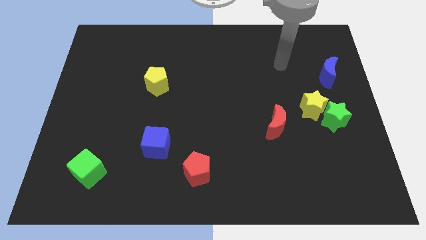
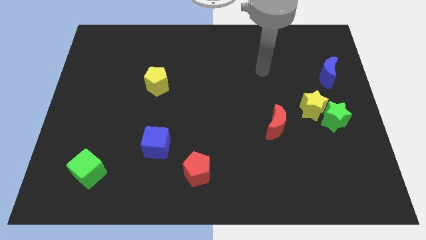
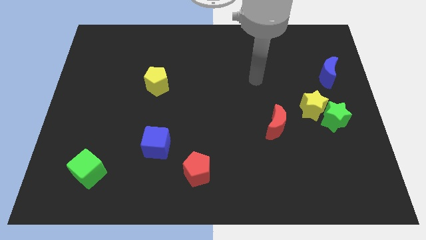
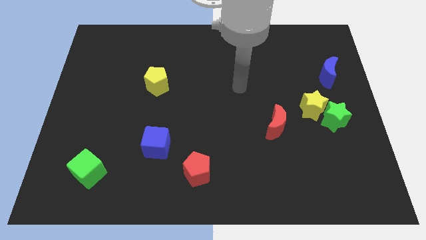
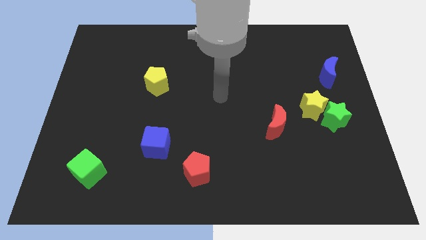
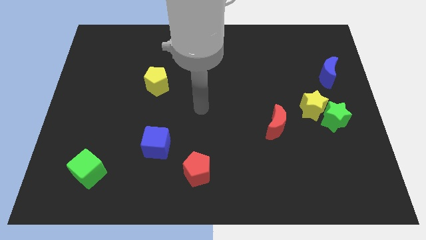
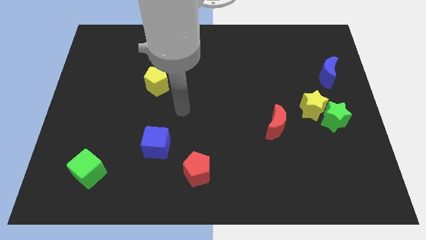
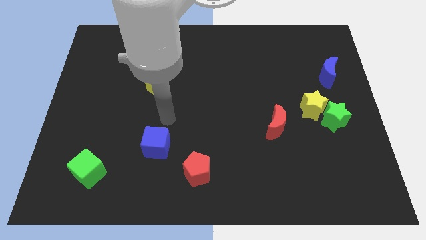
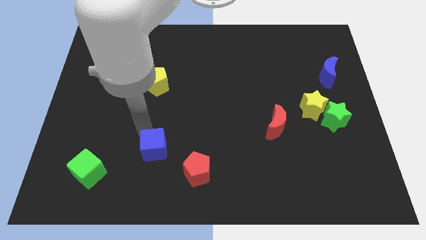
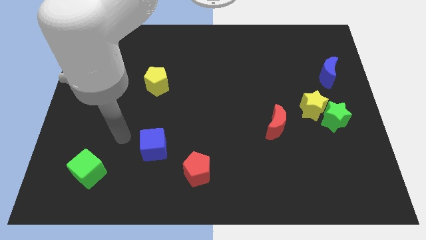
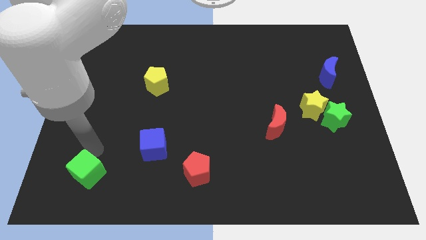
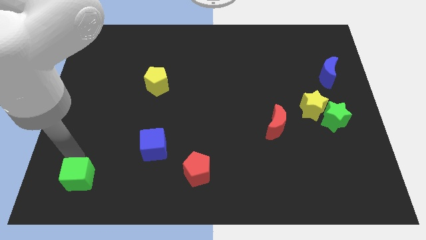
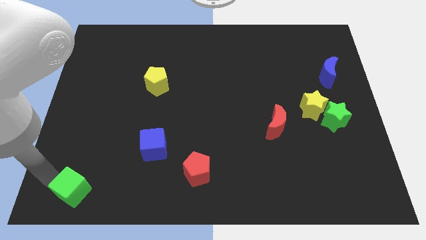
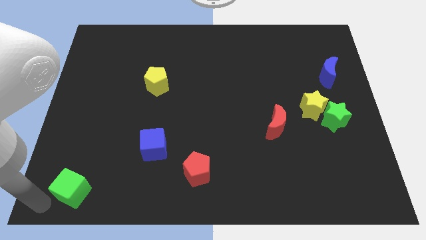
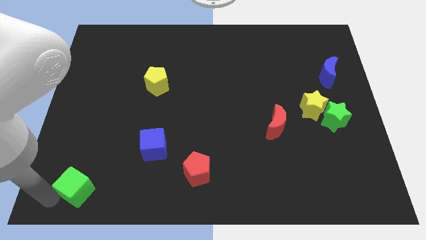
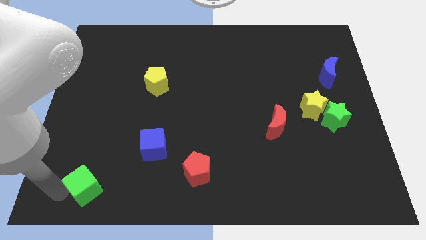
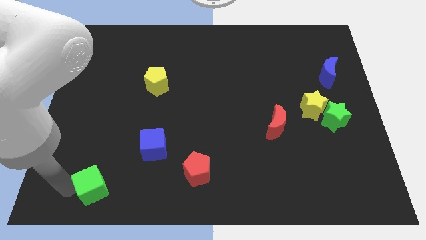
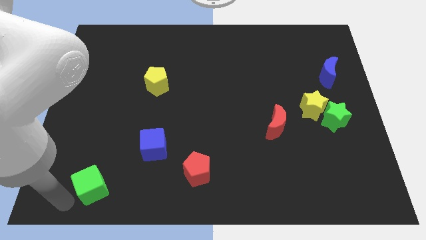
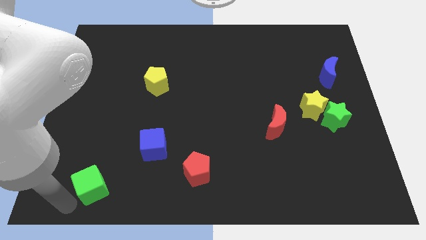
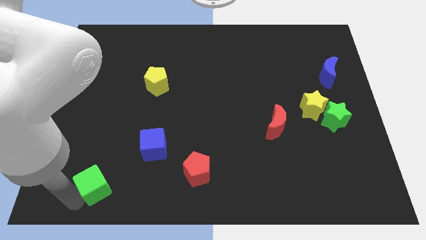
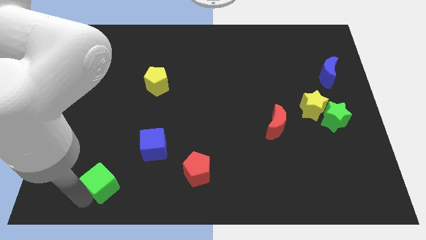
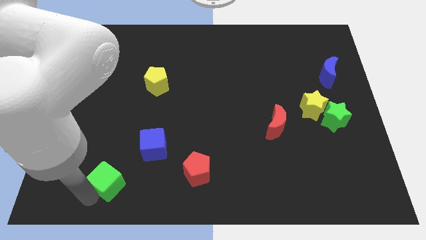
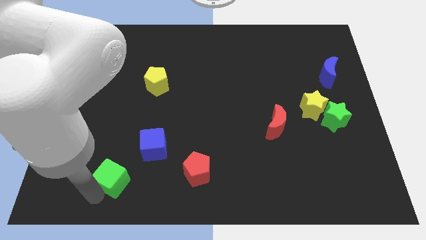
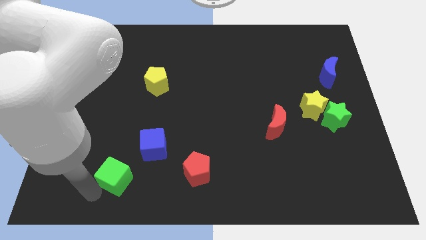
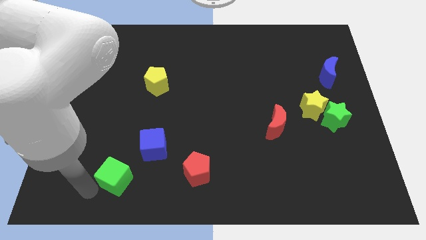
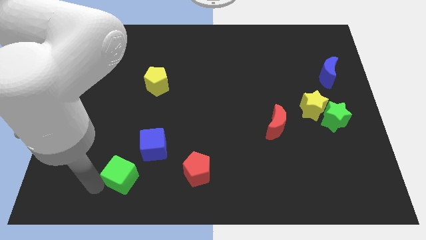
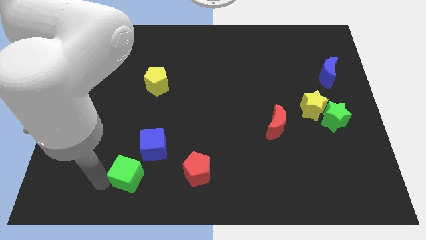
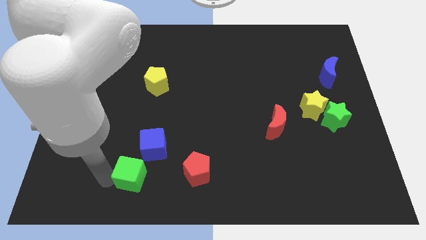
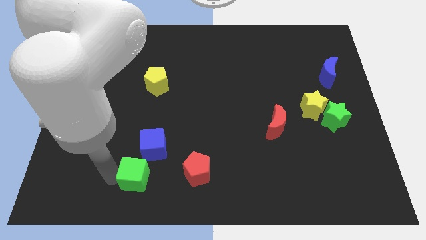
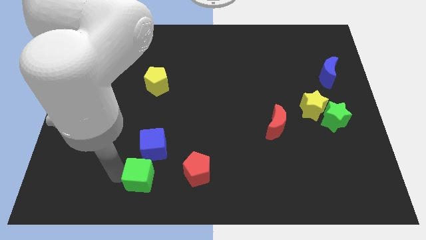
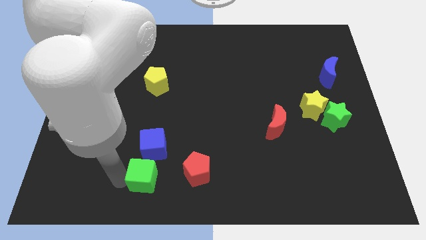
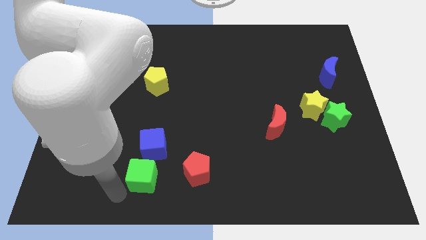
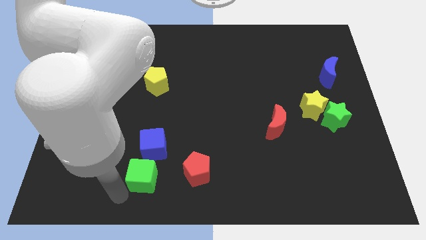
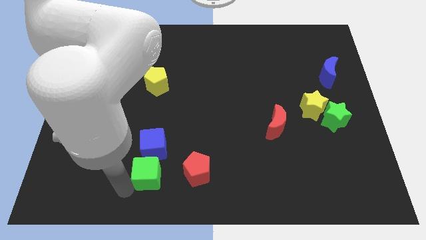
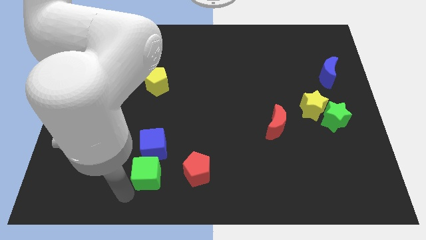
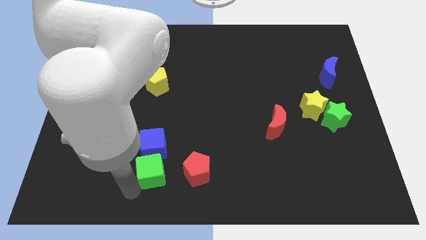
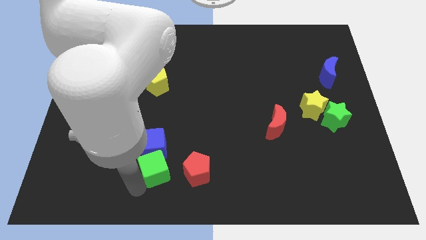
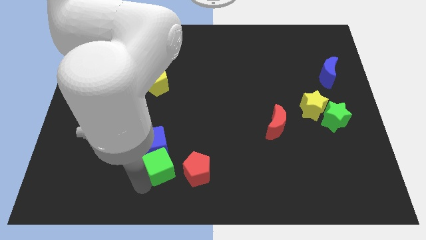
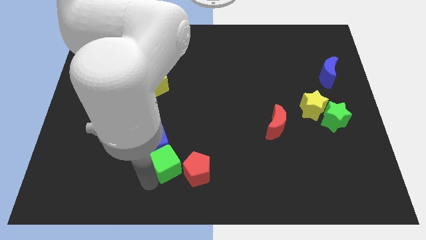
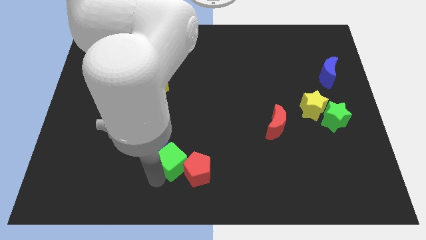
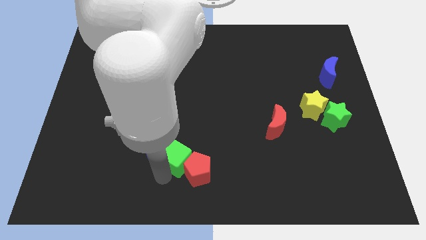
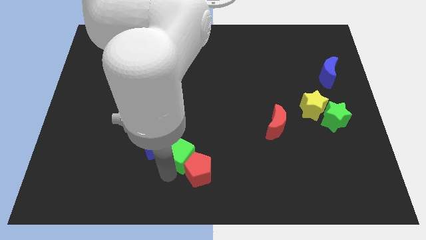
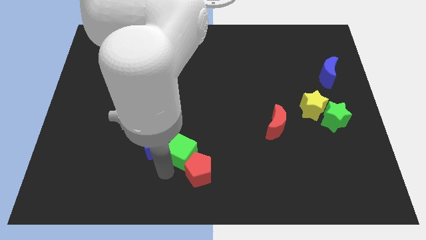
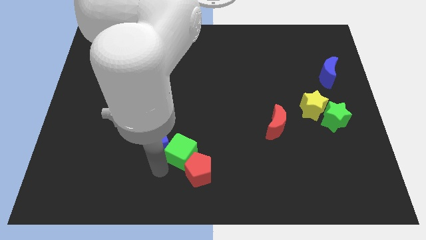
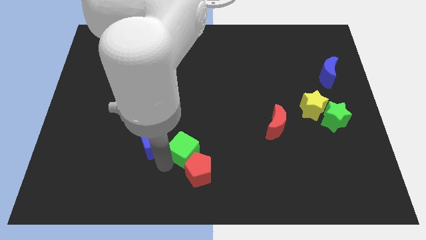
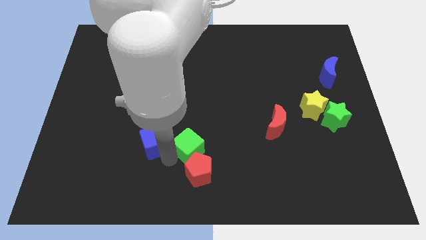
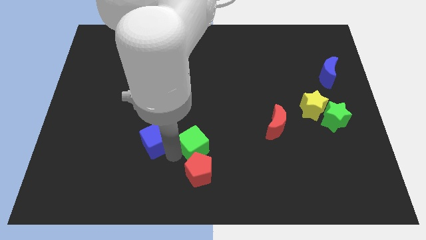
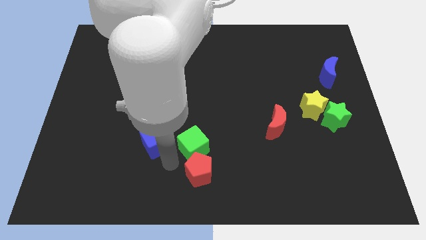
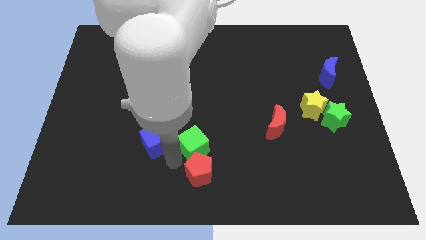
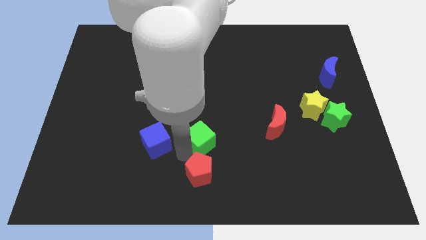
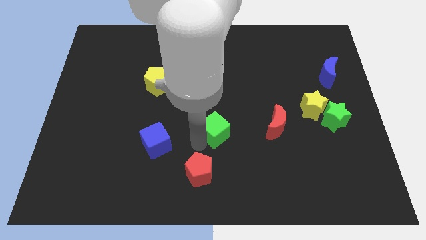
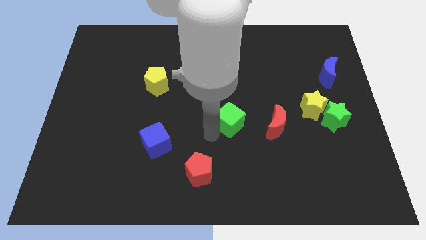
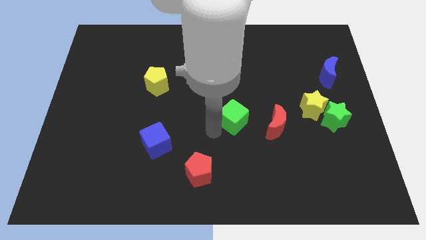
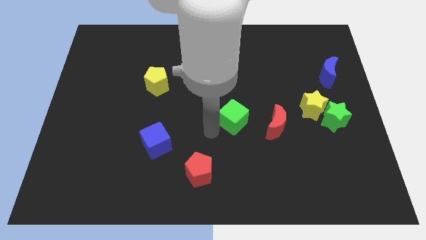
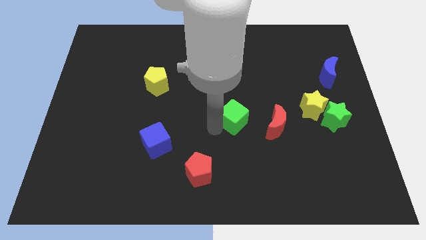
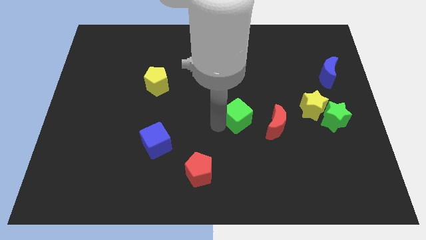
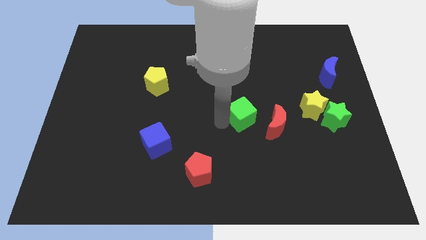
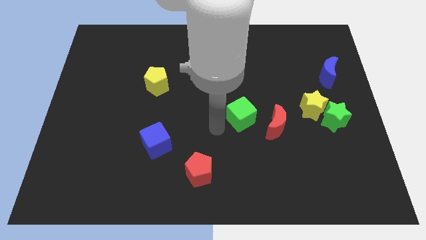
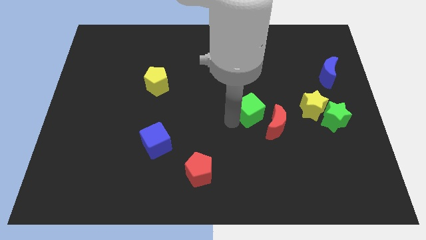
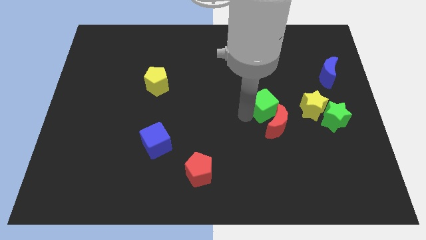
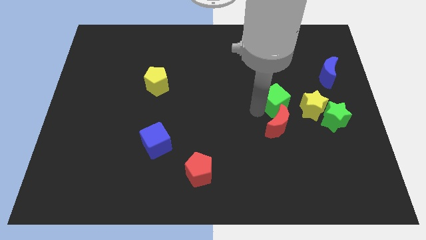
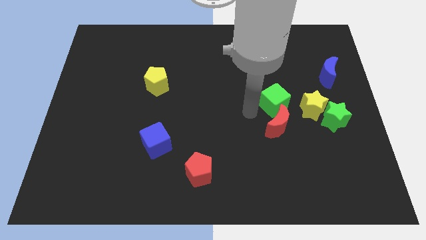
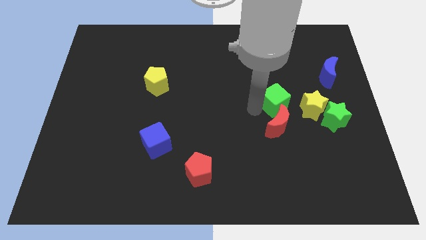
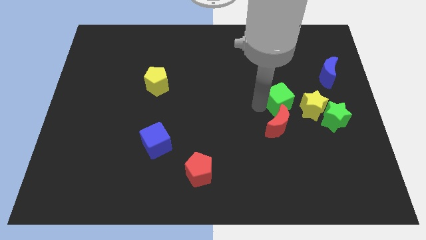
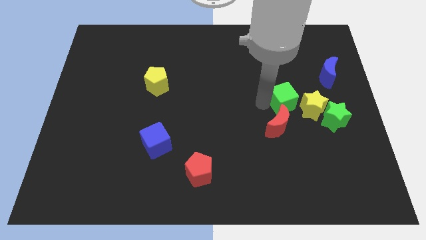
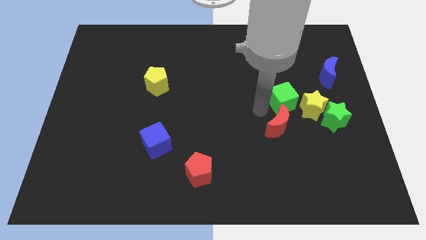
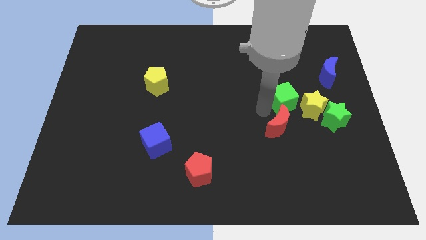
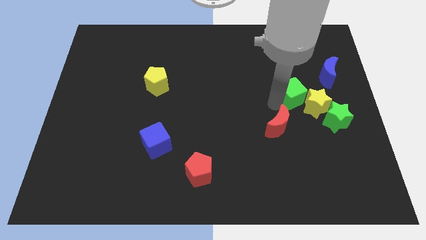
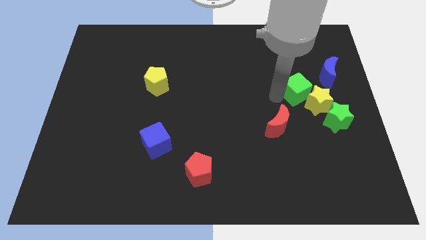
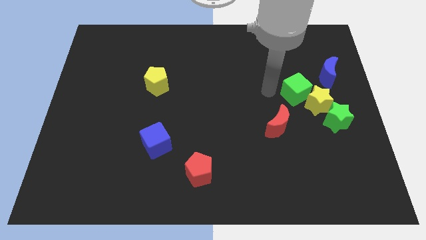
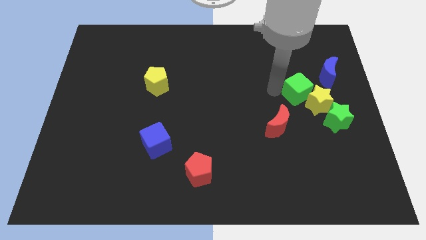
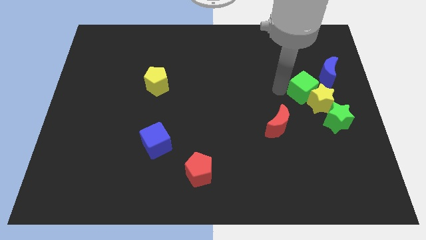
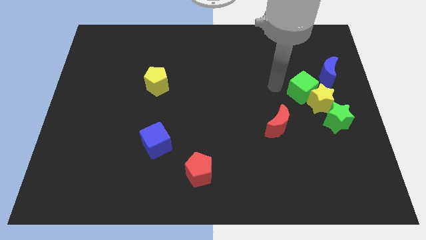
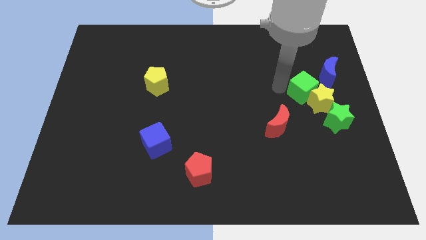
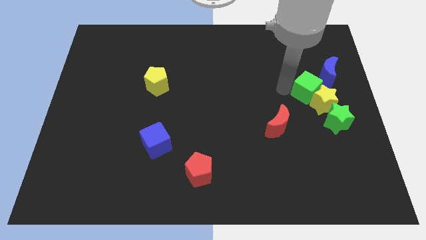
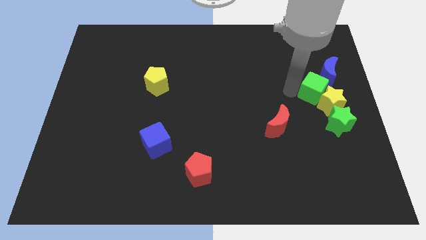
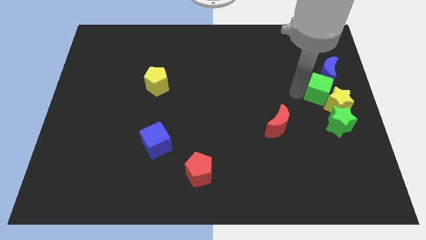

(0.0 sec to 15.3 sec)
move the green cube to the right side
